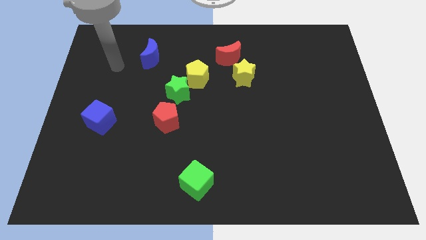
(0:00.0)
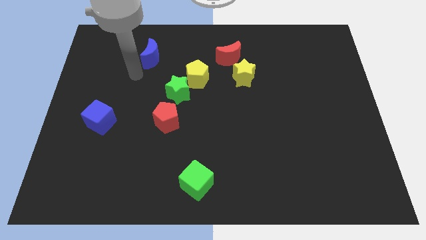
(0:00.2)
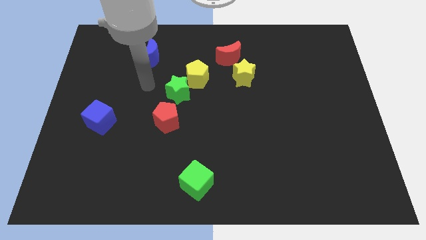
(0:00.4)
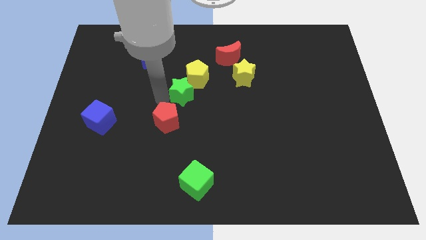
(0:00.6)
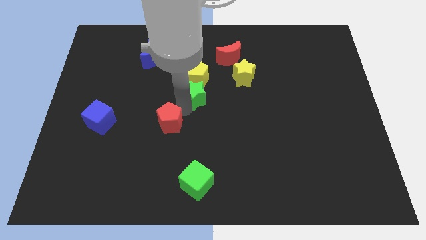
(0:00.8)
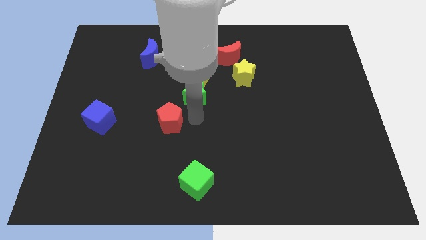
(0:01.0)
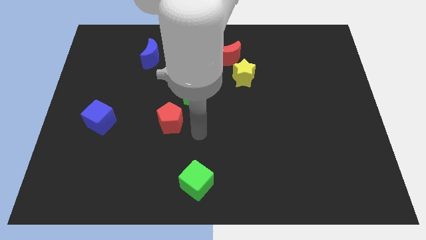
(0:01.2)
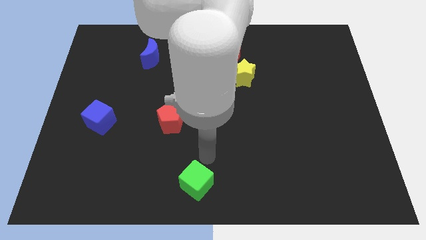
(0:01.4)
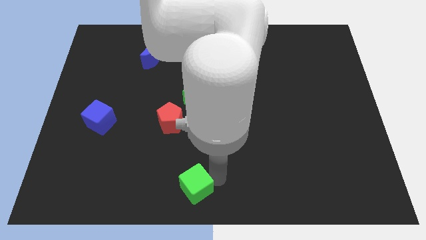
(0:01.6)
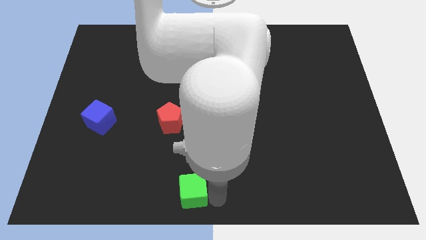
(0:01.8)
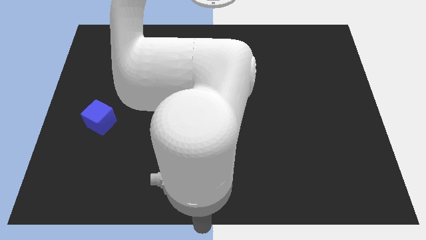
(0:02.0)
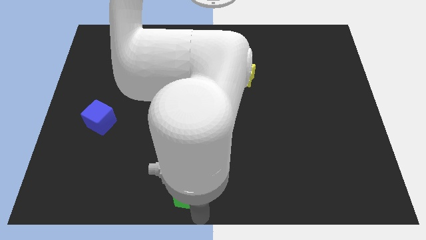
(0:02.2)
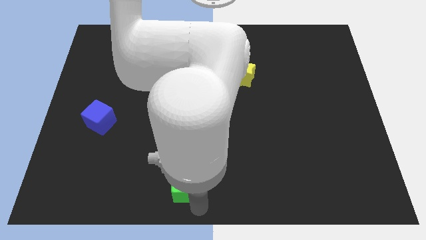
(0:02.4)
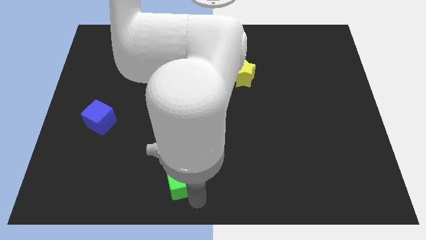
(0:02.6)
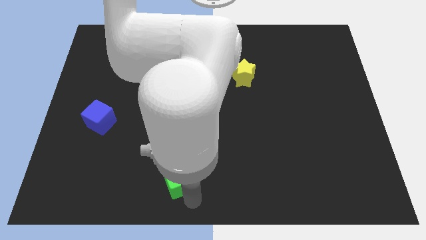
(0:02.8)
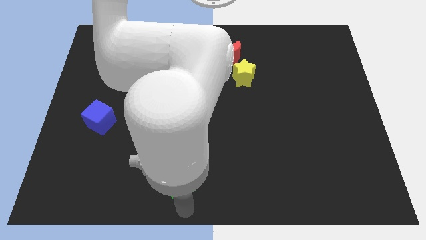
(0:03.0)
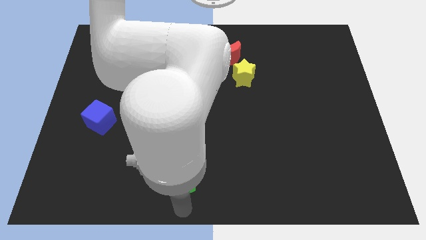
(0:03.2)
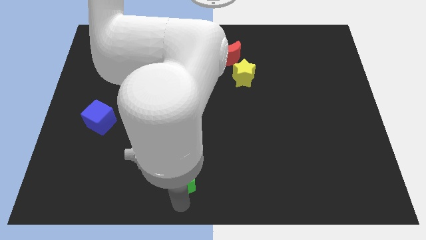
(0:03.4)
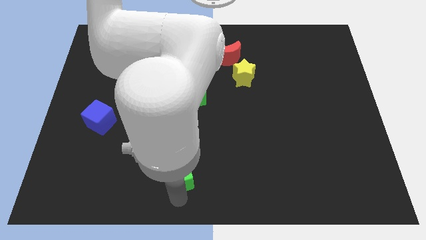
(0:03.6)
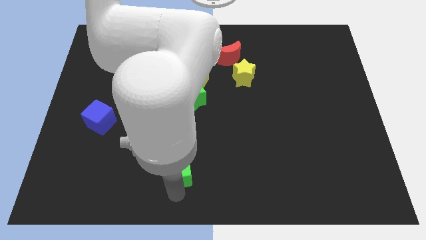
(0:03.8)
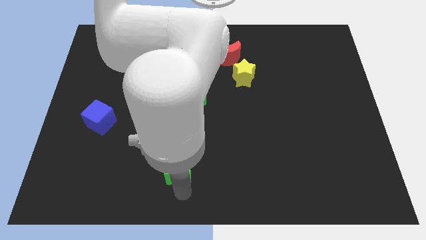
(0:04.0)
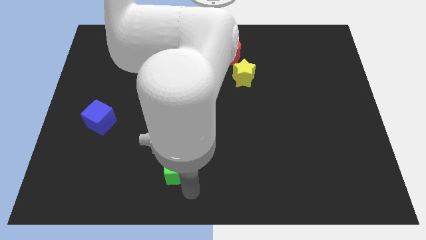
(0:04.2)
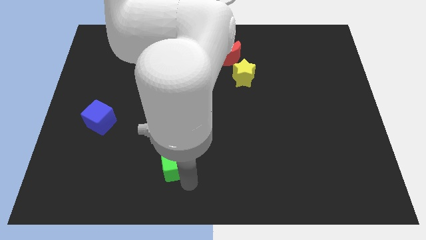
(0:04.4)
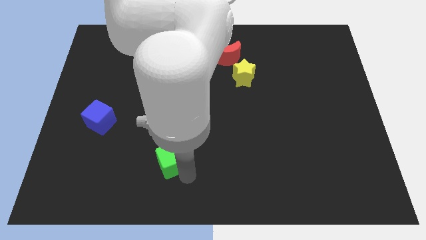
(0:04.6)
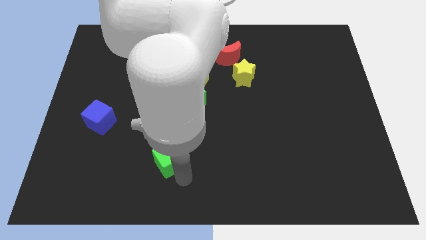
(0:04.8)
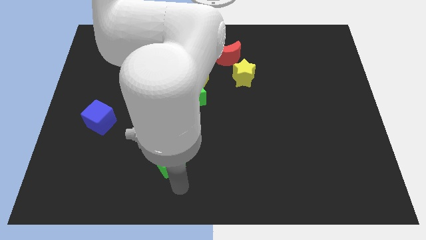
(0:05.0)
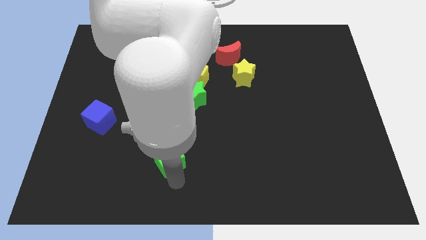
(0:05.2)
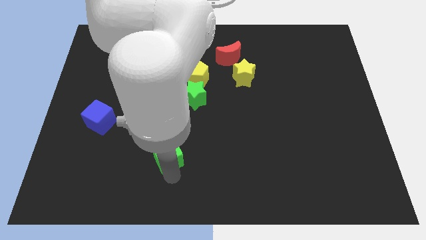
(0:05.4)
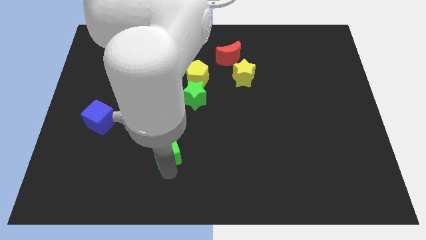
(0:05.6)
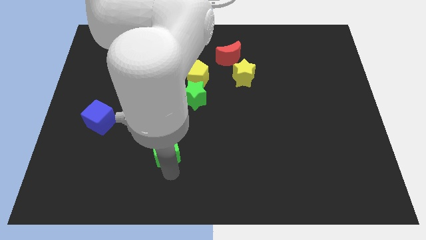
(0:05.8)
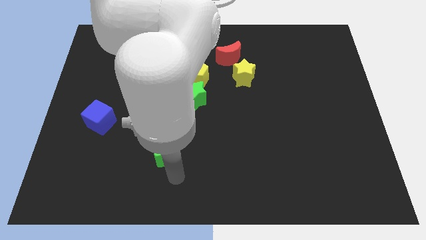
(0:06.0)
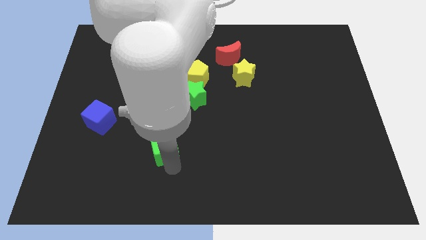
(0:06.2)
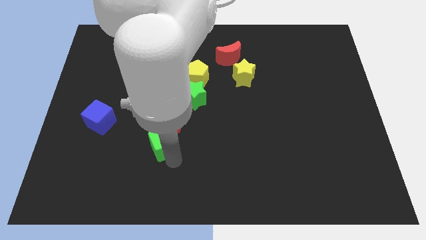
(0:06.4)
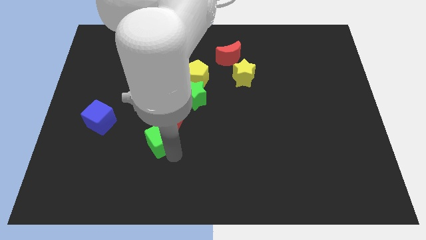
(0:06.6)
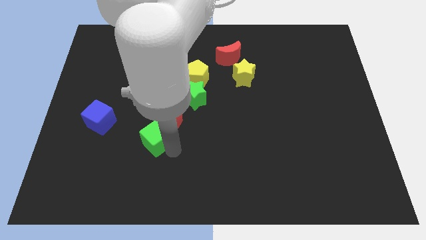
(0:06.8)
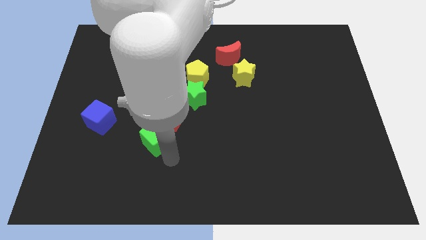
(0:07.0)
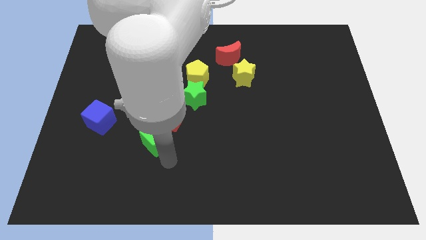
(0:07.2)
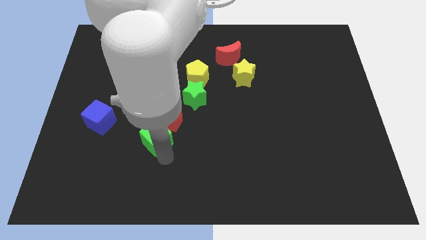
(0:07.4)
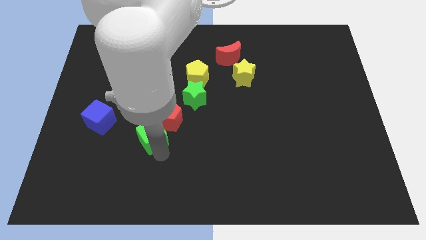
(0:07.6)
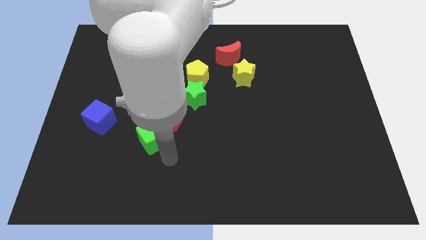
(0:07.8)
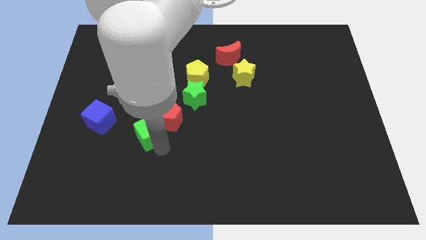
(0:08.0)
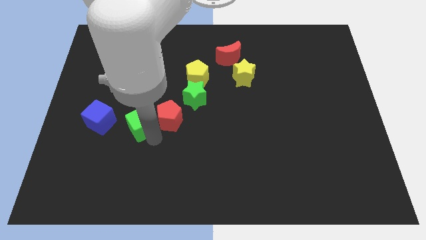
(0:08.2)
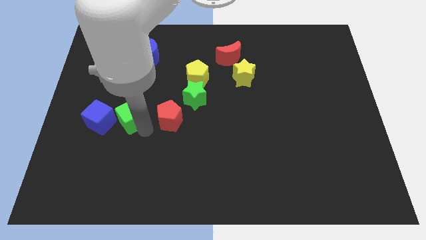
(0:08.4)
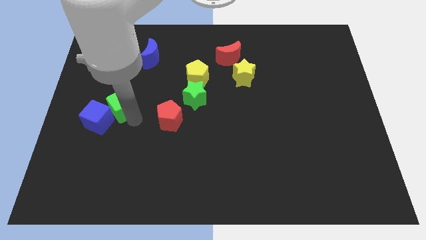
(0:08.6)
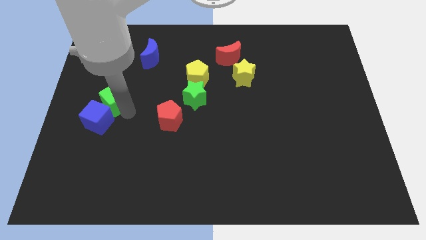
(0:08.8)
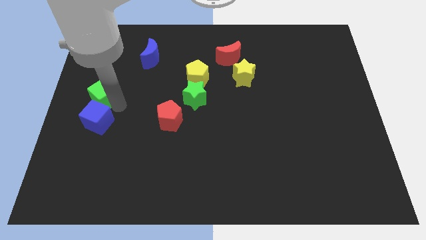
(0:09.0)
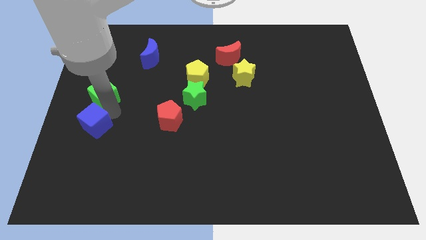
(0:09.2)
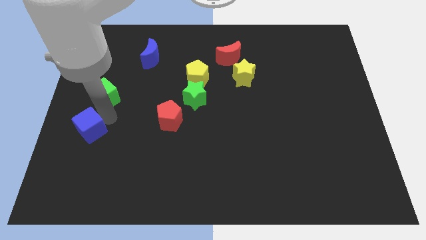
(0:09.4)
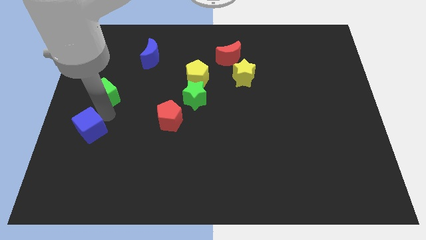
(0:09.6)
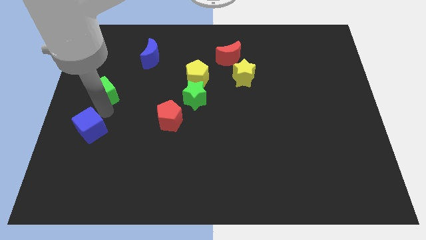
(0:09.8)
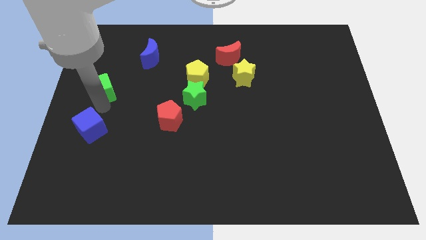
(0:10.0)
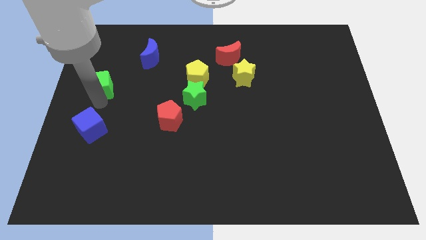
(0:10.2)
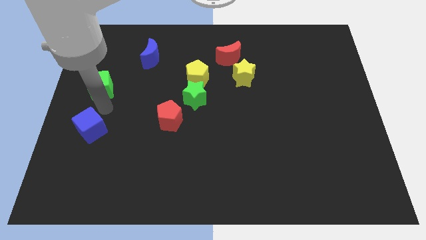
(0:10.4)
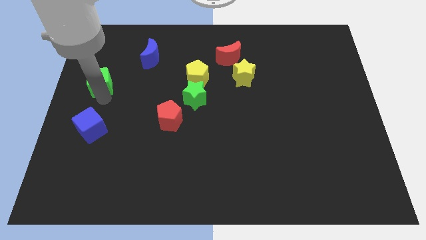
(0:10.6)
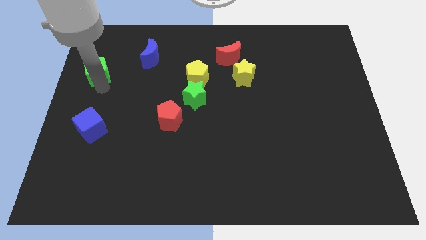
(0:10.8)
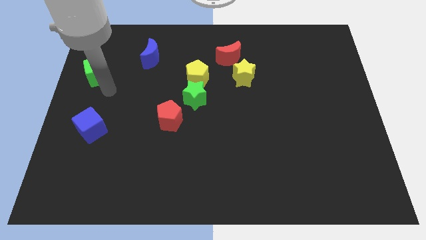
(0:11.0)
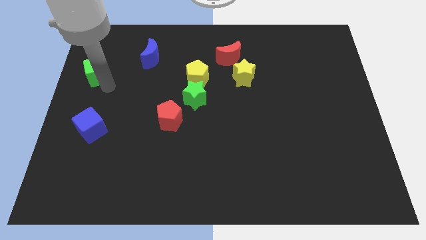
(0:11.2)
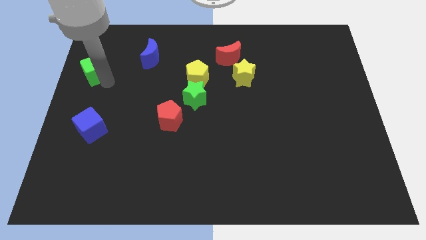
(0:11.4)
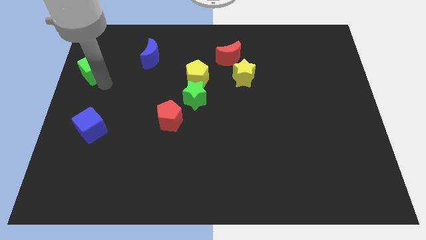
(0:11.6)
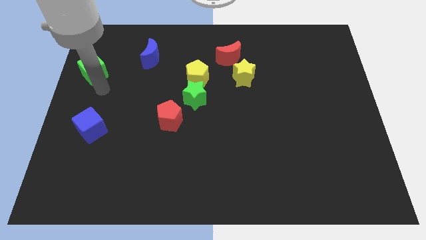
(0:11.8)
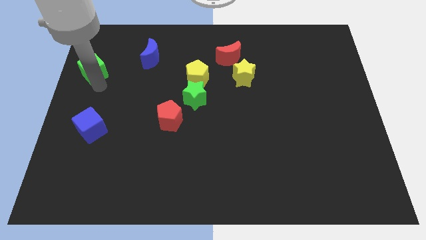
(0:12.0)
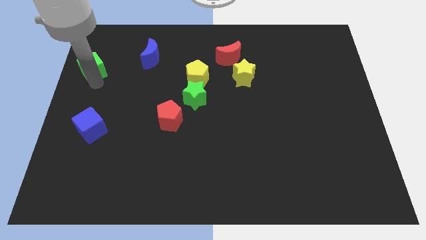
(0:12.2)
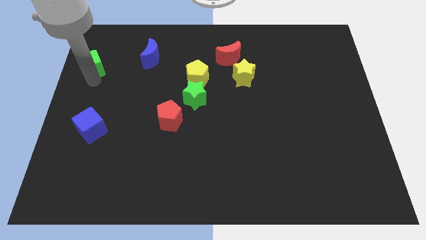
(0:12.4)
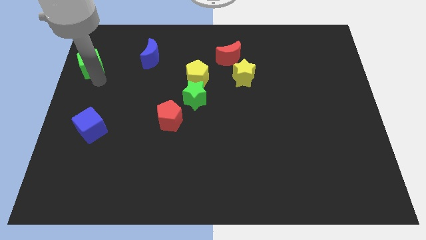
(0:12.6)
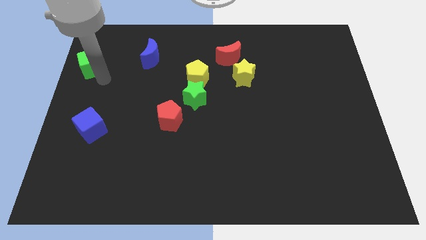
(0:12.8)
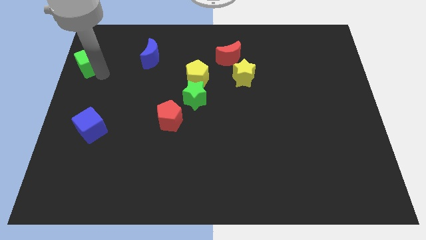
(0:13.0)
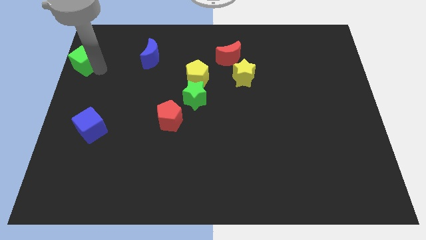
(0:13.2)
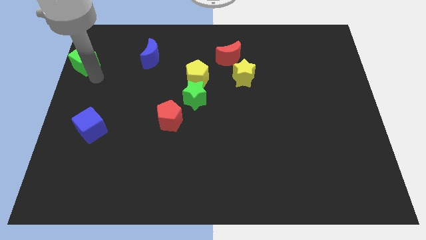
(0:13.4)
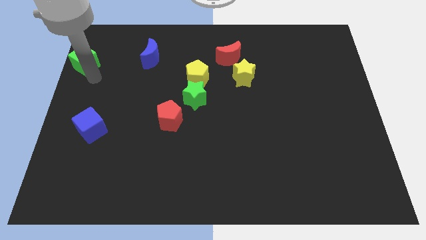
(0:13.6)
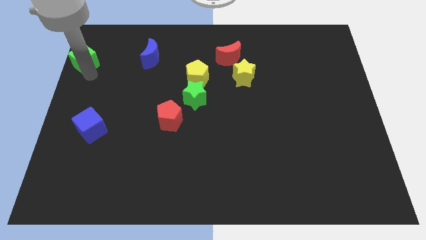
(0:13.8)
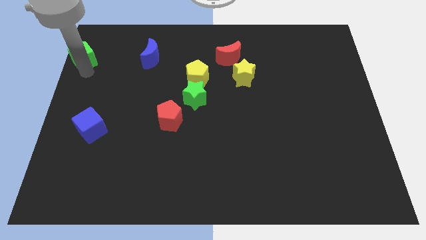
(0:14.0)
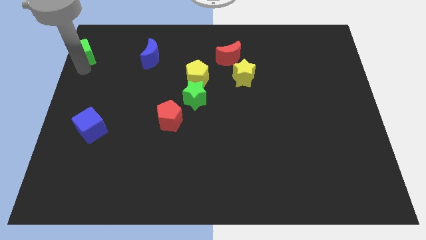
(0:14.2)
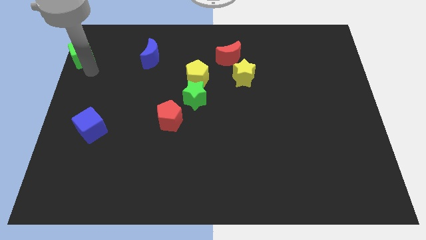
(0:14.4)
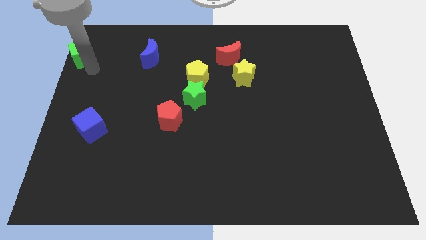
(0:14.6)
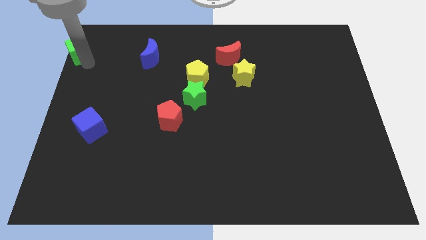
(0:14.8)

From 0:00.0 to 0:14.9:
push the green cube to the top left corner
